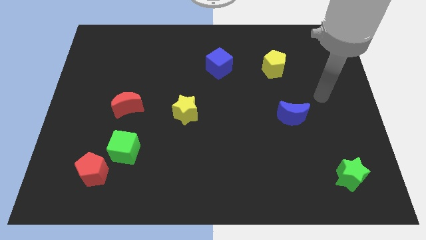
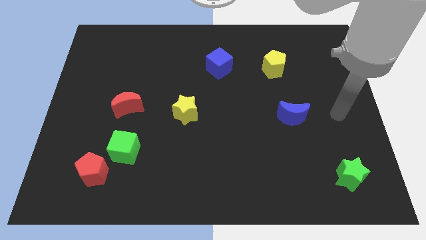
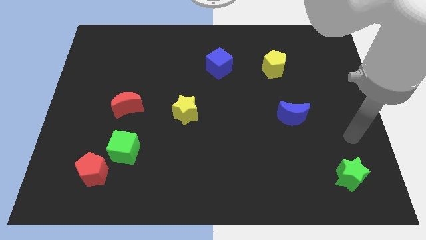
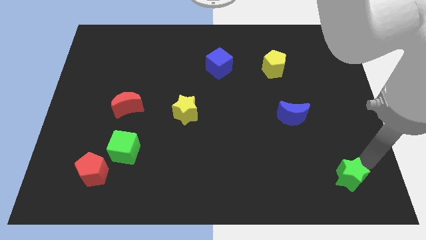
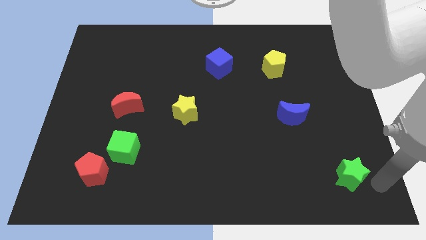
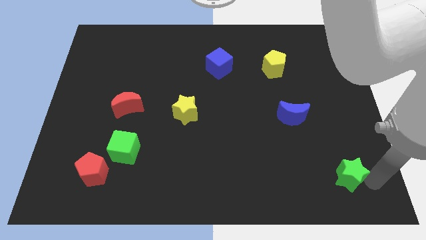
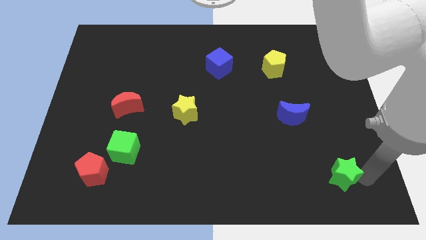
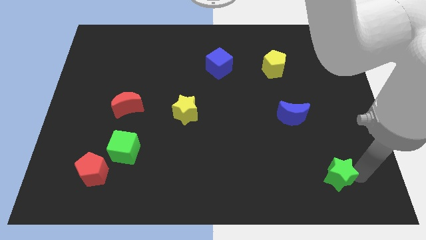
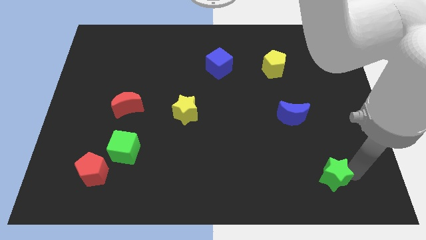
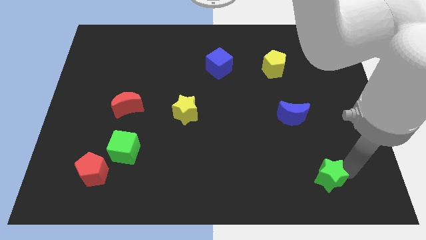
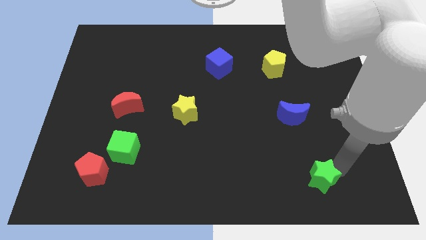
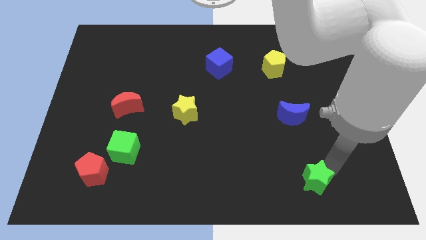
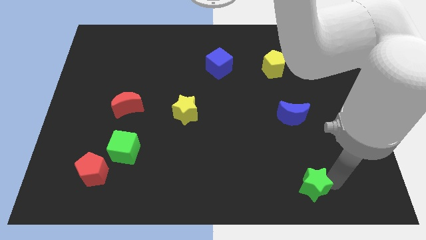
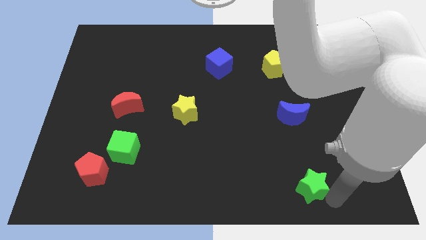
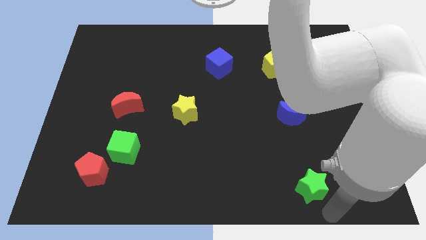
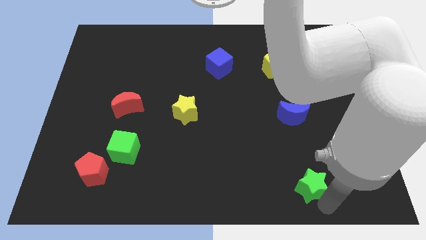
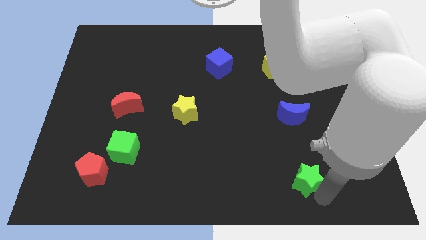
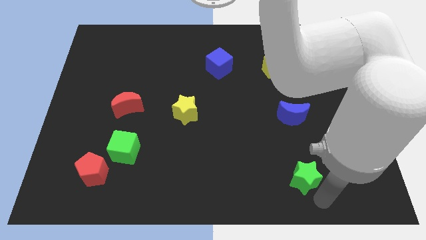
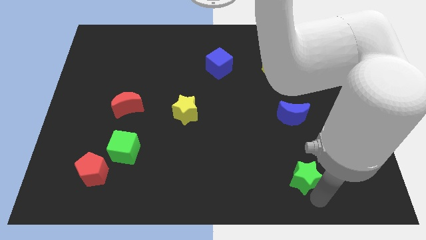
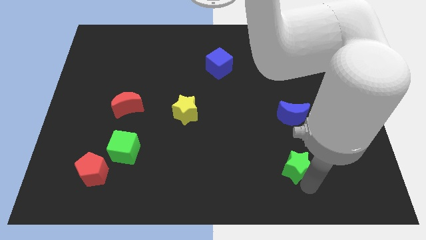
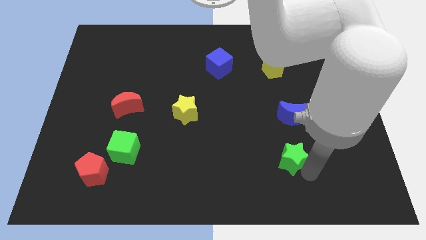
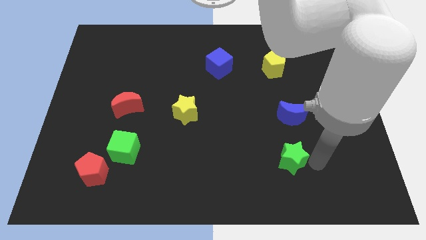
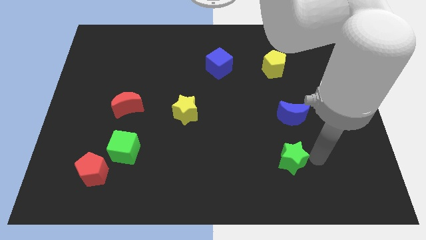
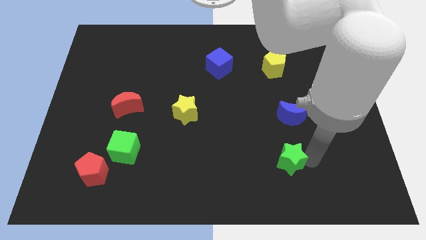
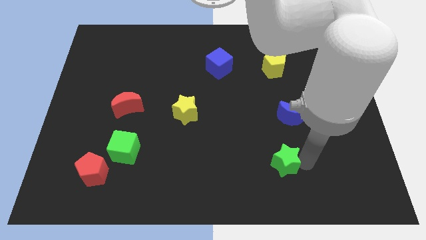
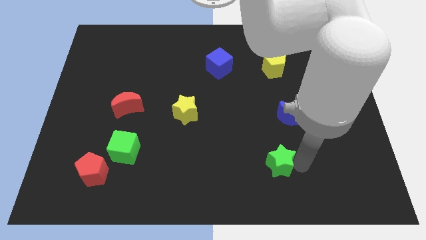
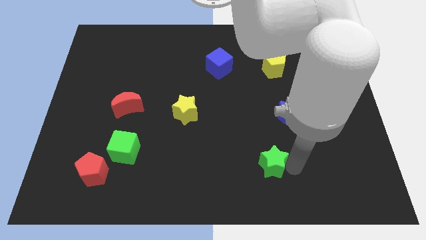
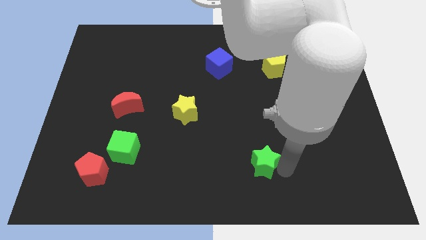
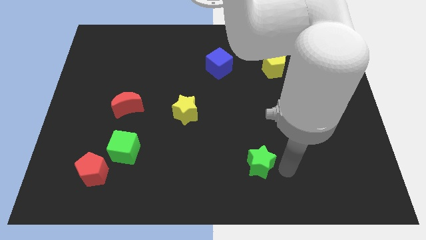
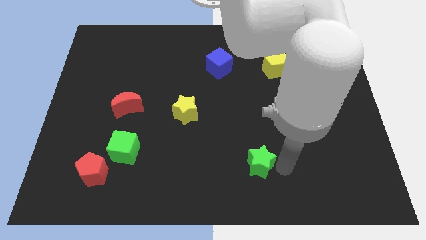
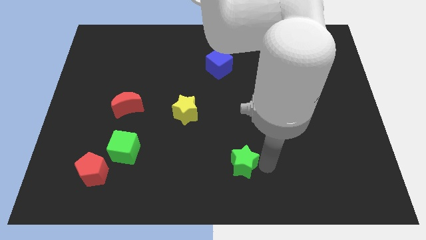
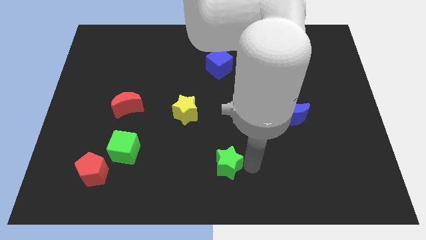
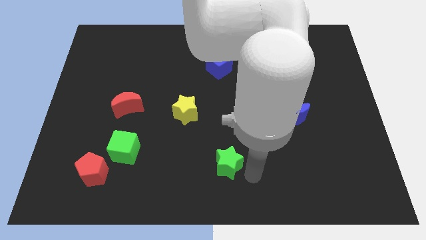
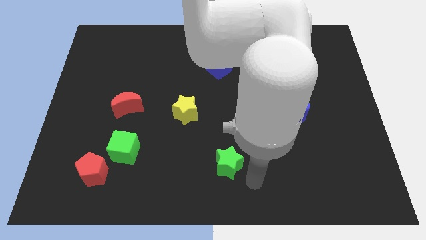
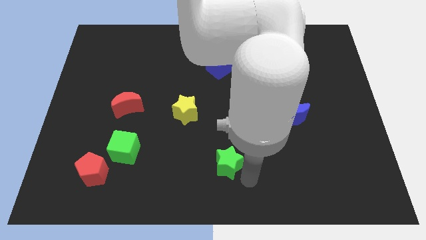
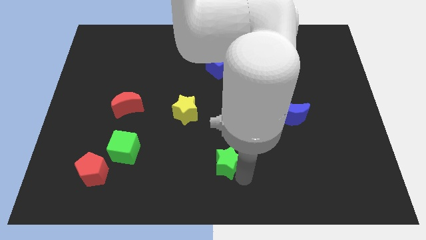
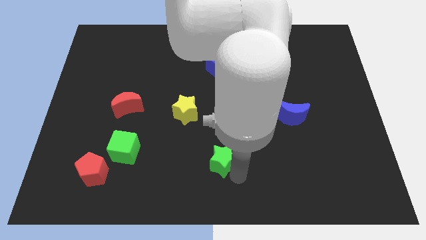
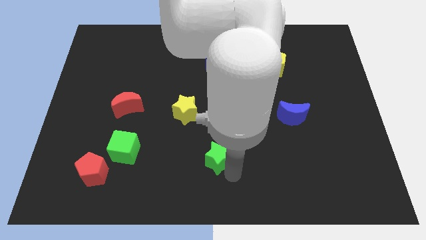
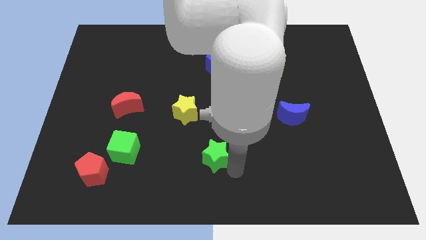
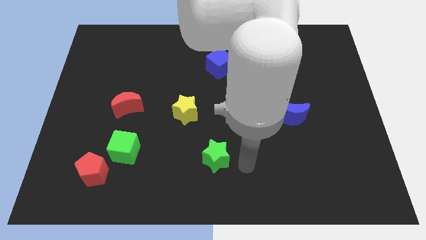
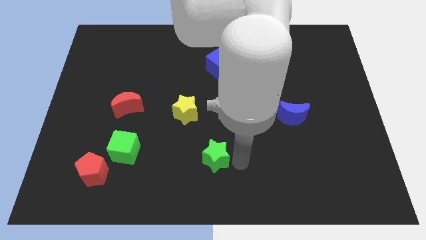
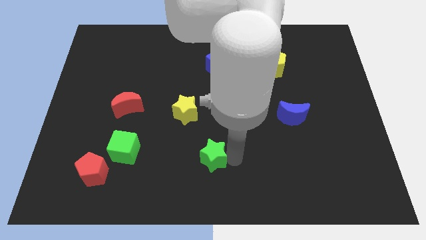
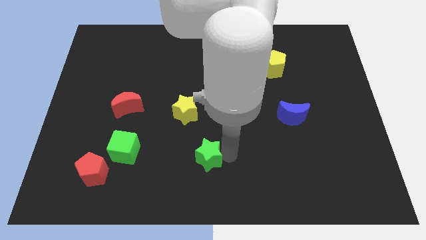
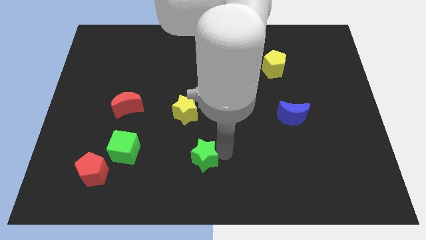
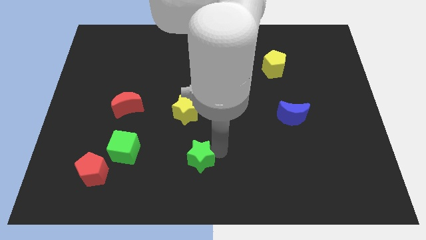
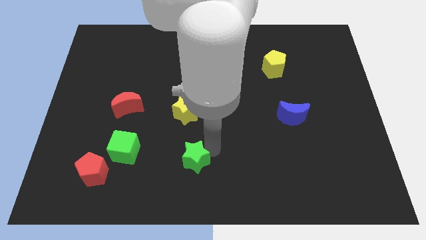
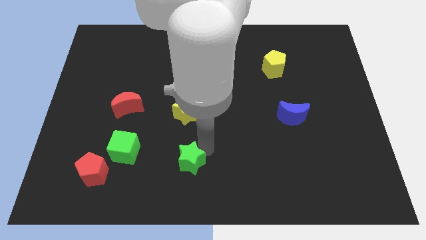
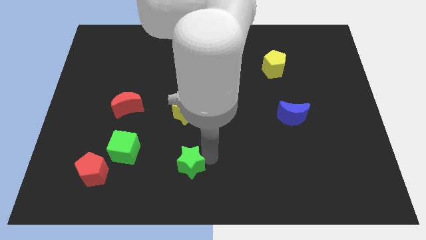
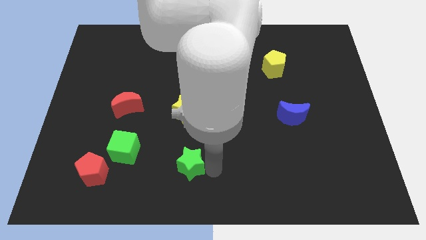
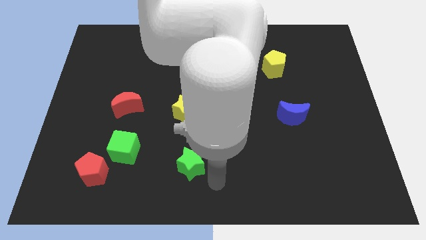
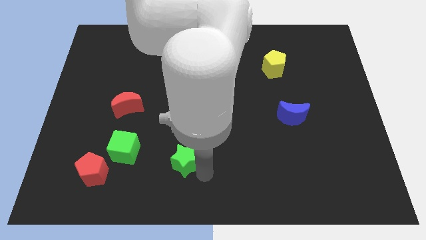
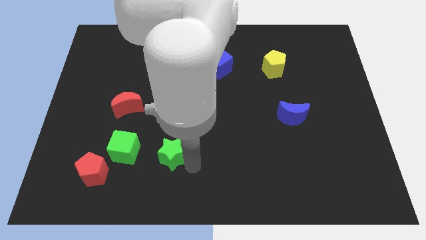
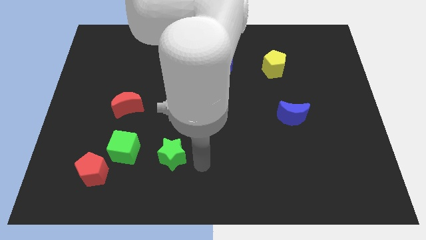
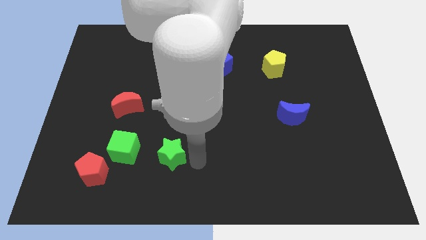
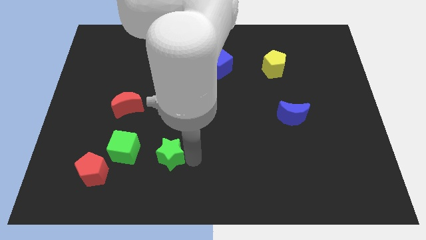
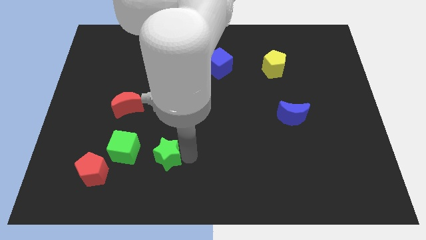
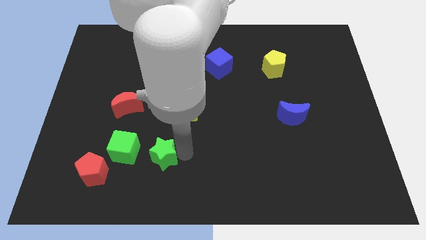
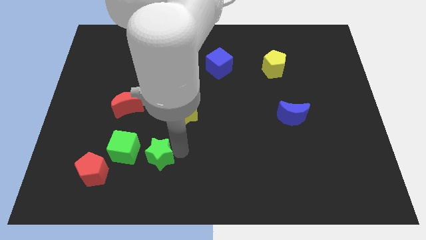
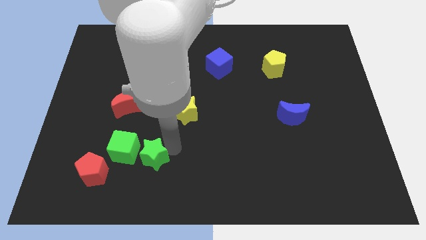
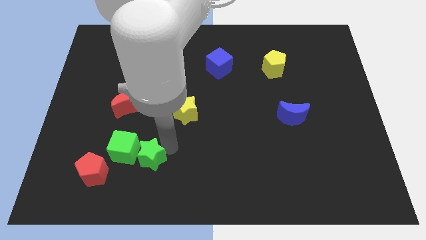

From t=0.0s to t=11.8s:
slide the green star close to the green cube
